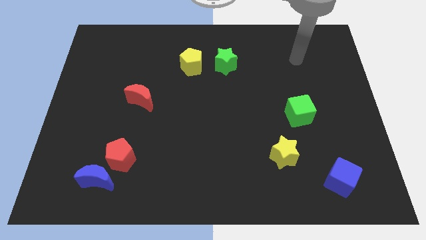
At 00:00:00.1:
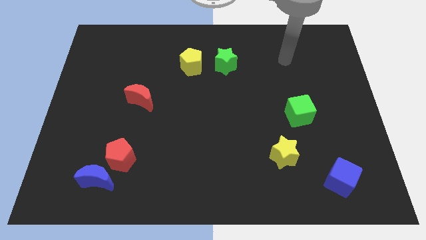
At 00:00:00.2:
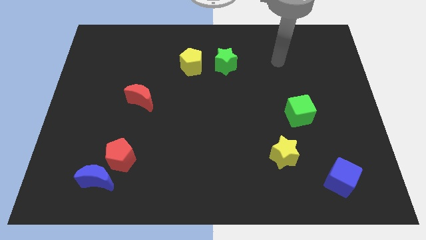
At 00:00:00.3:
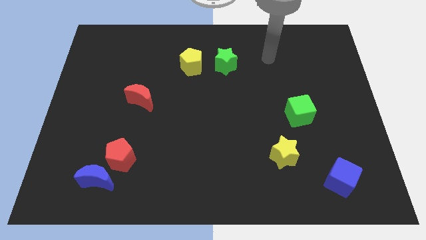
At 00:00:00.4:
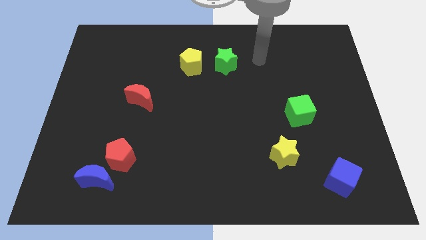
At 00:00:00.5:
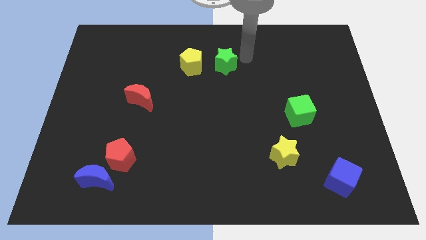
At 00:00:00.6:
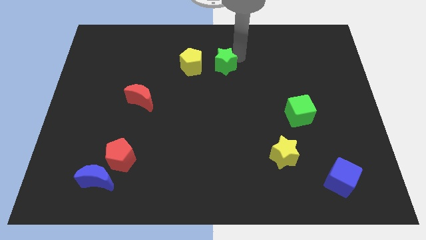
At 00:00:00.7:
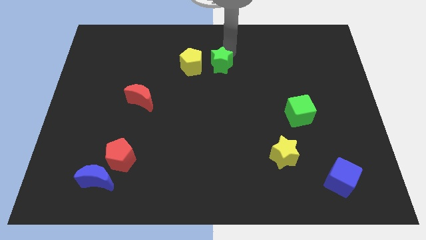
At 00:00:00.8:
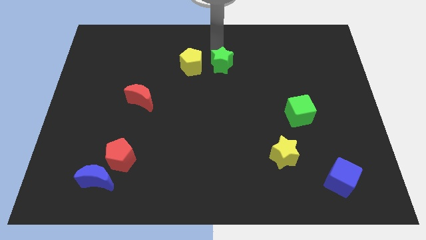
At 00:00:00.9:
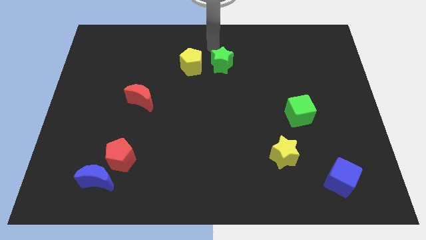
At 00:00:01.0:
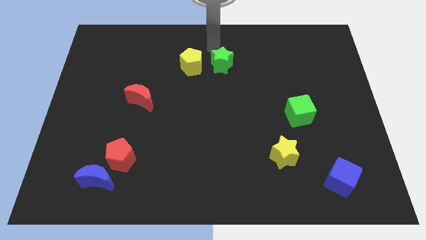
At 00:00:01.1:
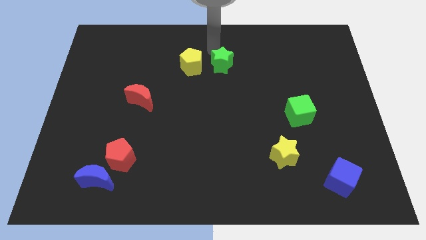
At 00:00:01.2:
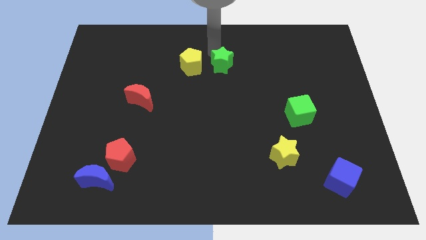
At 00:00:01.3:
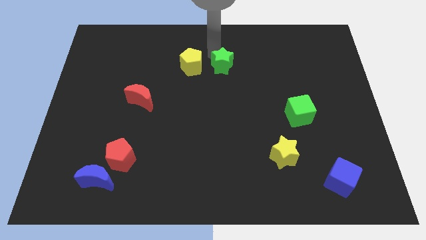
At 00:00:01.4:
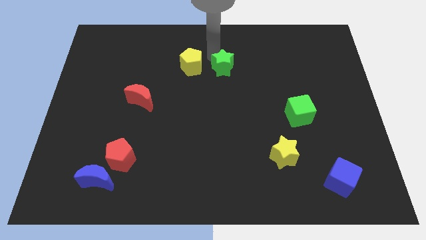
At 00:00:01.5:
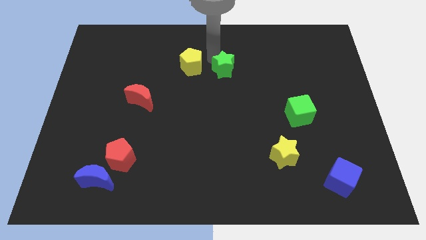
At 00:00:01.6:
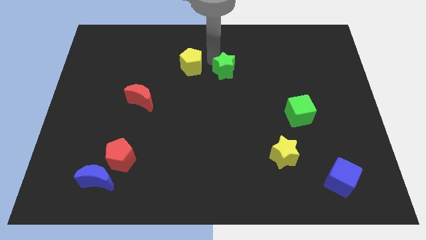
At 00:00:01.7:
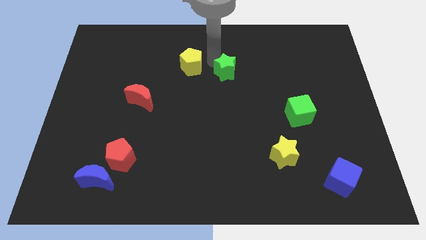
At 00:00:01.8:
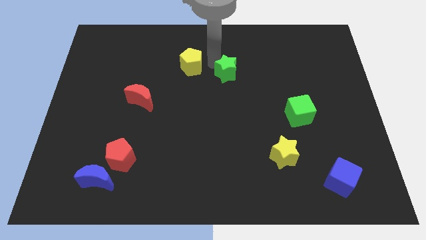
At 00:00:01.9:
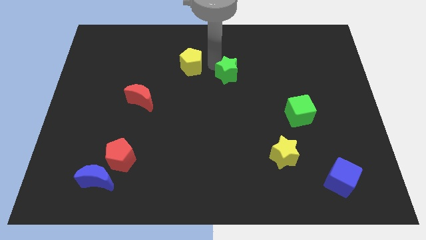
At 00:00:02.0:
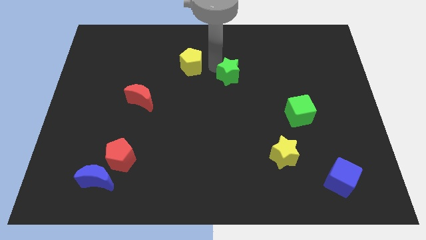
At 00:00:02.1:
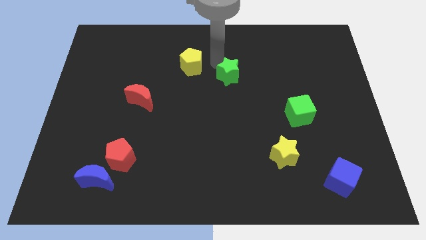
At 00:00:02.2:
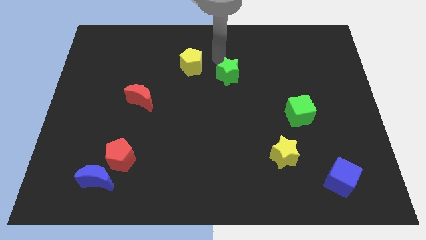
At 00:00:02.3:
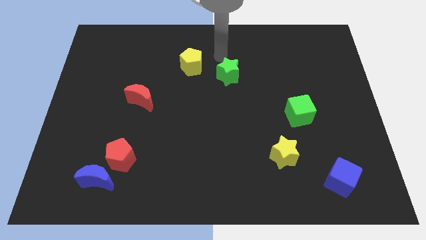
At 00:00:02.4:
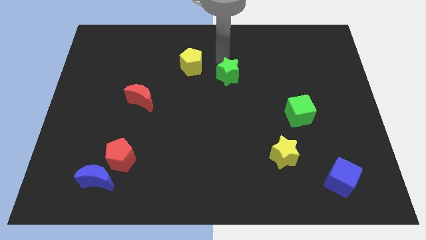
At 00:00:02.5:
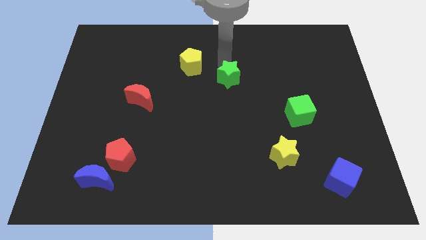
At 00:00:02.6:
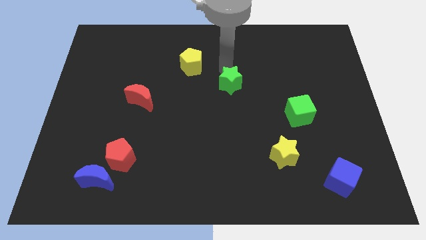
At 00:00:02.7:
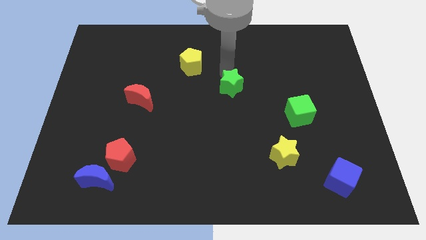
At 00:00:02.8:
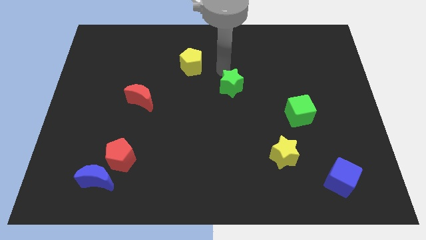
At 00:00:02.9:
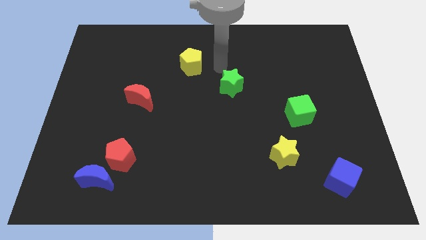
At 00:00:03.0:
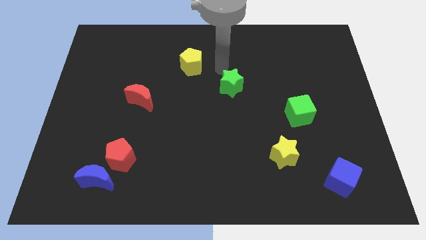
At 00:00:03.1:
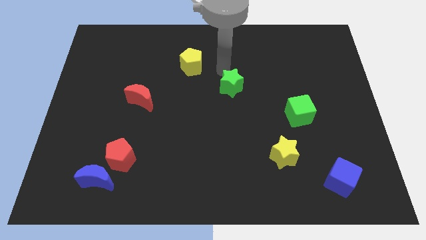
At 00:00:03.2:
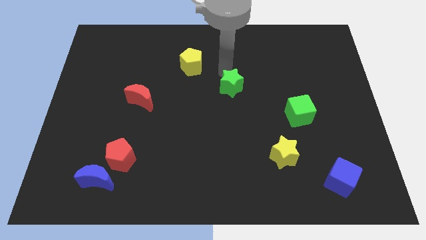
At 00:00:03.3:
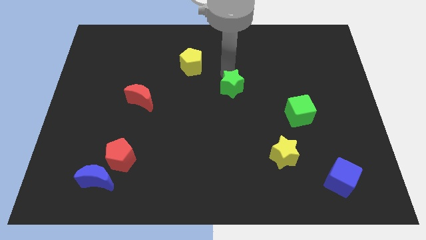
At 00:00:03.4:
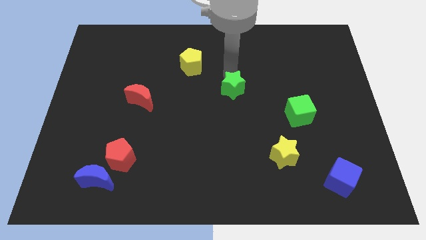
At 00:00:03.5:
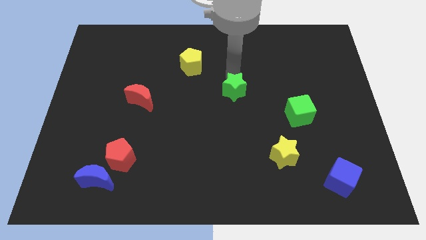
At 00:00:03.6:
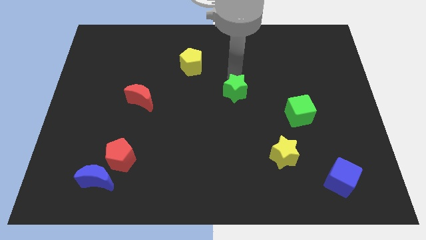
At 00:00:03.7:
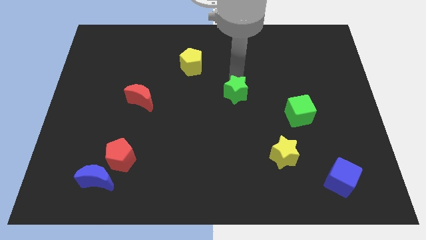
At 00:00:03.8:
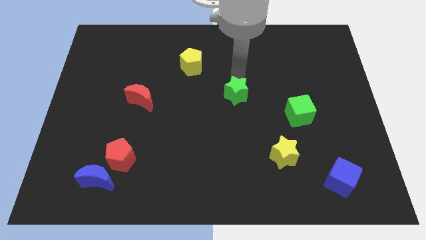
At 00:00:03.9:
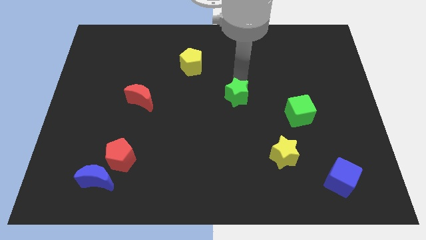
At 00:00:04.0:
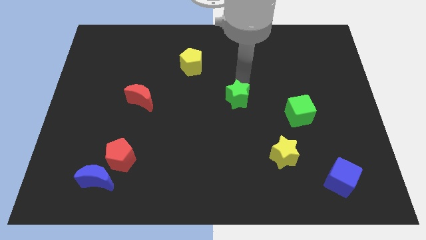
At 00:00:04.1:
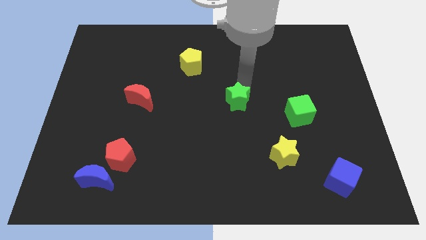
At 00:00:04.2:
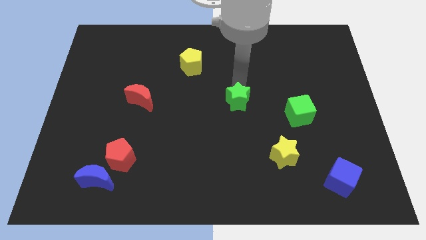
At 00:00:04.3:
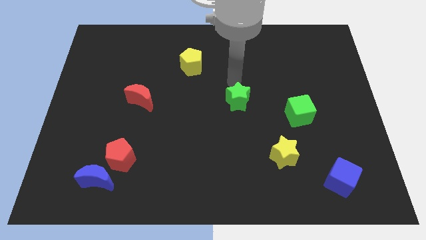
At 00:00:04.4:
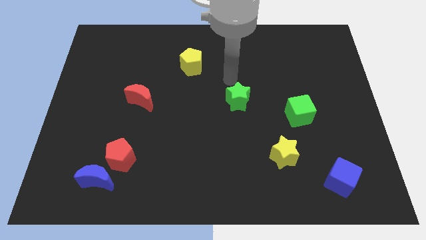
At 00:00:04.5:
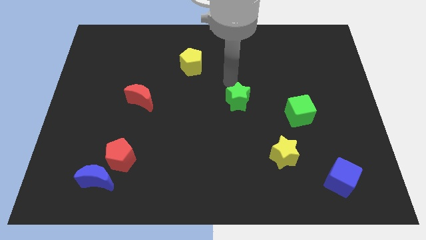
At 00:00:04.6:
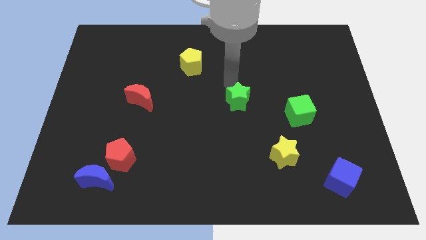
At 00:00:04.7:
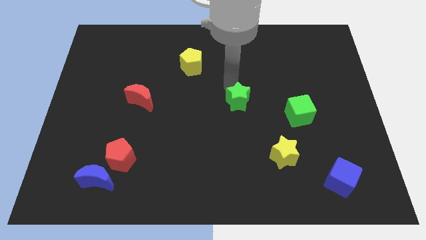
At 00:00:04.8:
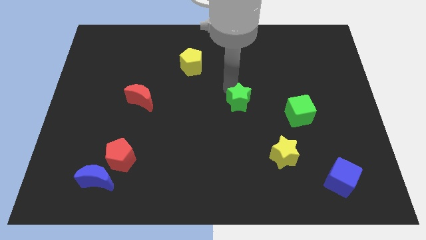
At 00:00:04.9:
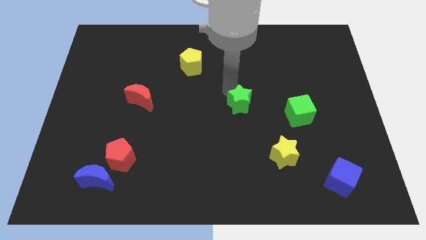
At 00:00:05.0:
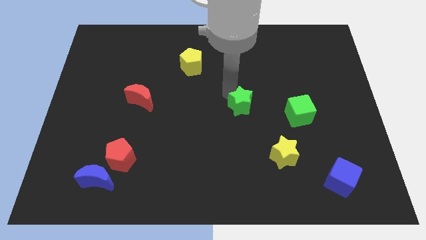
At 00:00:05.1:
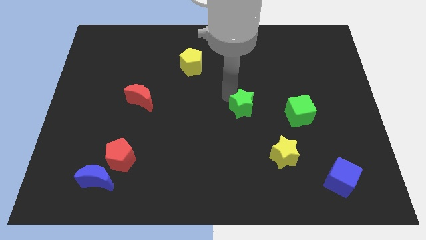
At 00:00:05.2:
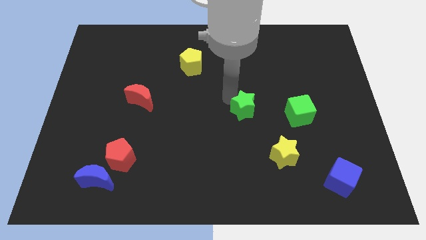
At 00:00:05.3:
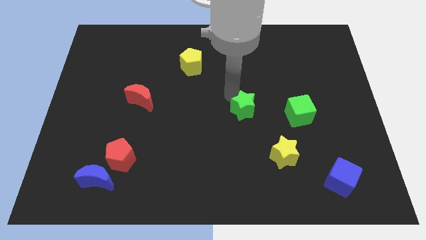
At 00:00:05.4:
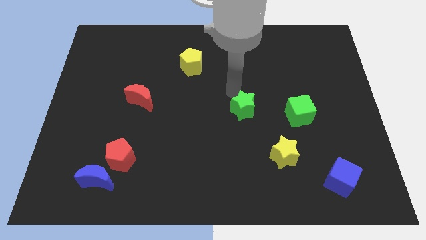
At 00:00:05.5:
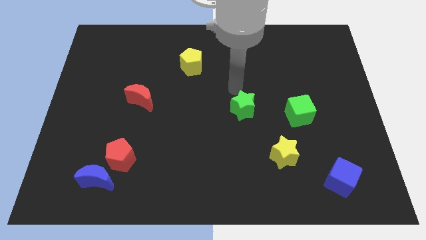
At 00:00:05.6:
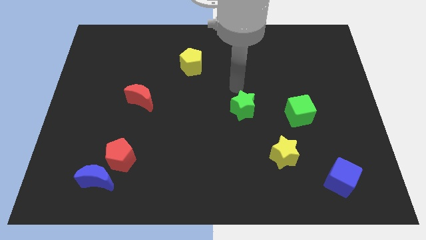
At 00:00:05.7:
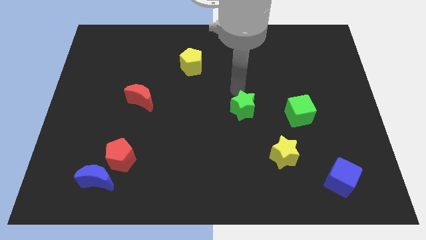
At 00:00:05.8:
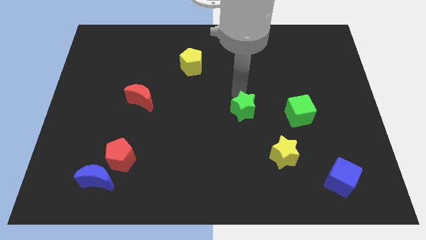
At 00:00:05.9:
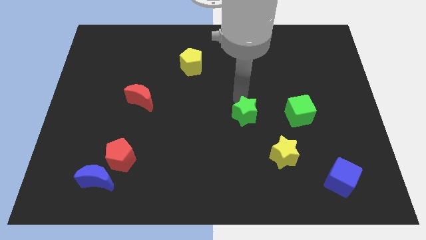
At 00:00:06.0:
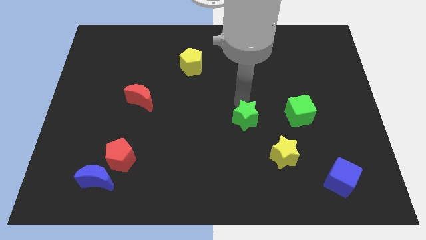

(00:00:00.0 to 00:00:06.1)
move the green star to the top left of the yellow star

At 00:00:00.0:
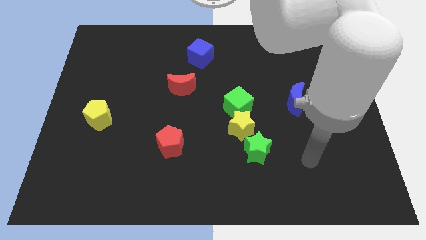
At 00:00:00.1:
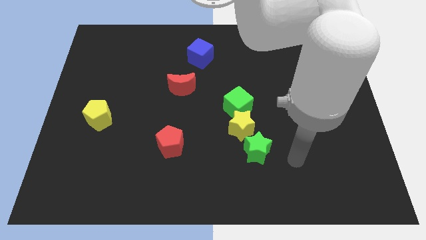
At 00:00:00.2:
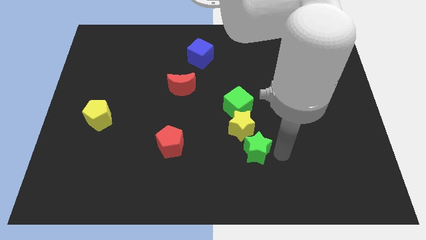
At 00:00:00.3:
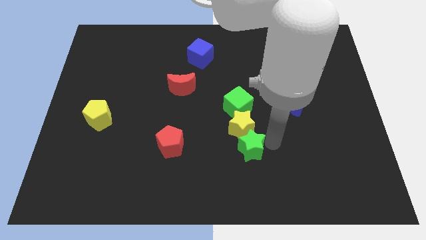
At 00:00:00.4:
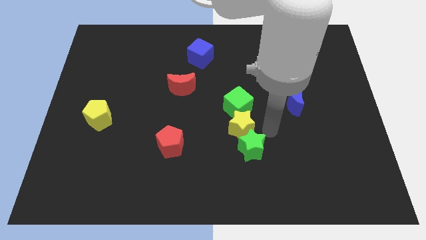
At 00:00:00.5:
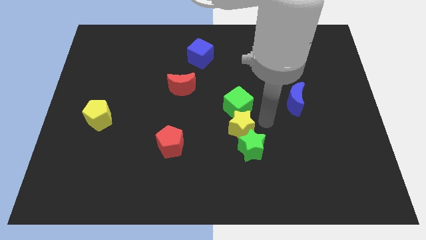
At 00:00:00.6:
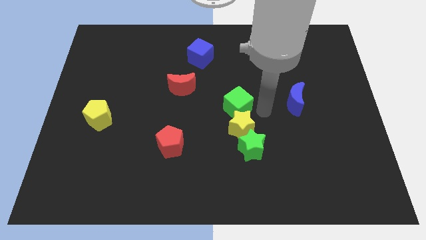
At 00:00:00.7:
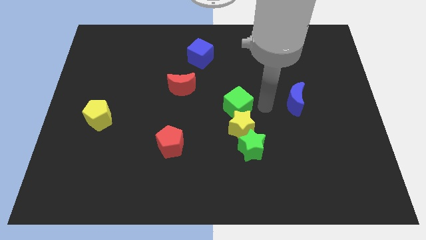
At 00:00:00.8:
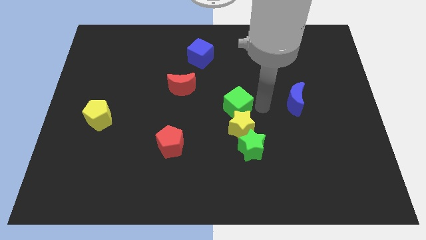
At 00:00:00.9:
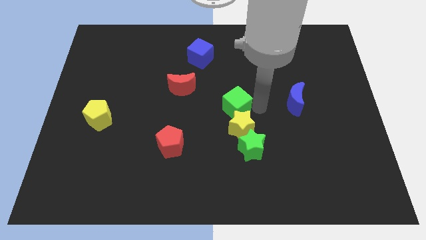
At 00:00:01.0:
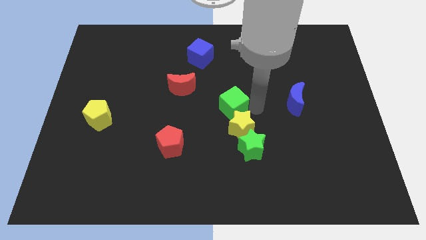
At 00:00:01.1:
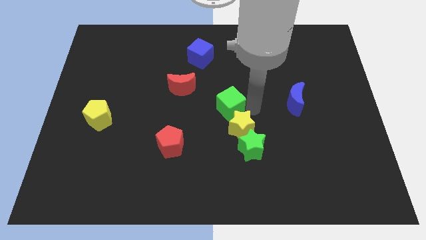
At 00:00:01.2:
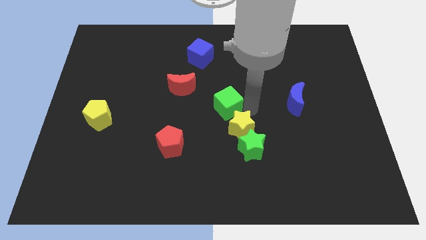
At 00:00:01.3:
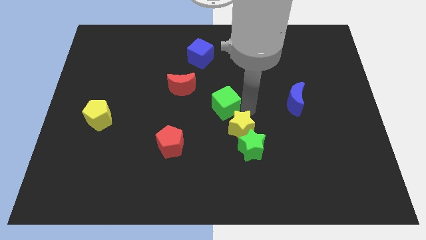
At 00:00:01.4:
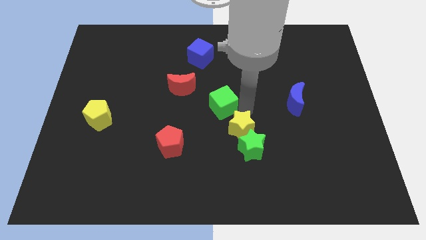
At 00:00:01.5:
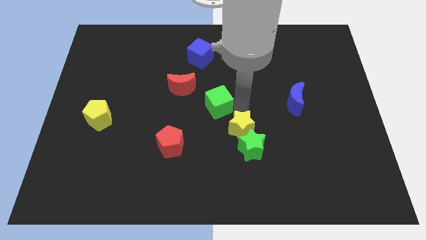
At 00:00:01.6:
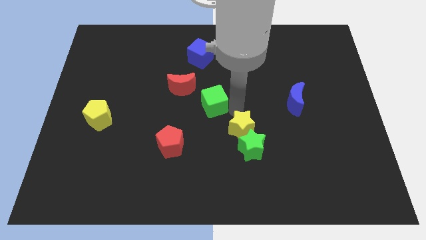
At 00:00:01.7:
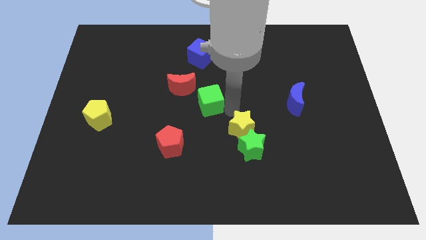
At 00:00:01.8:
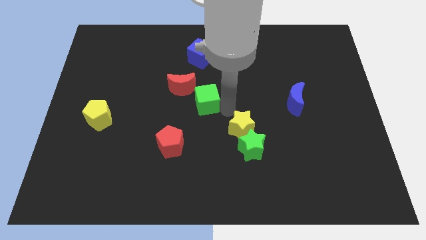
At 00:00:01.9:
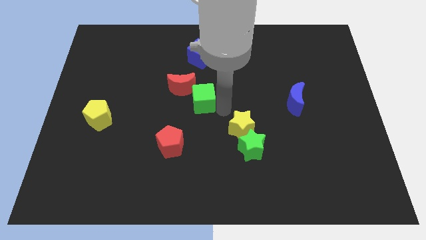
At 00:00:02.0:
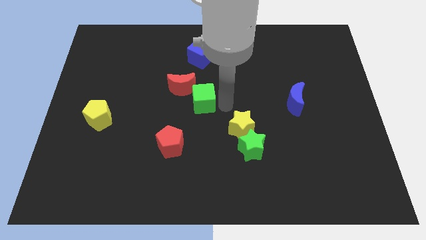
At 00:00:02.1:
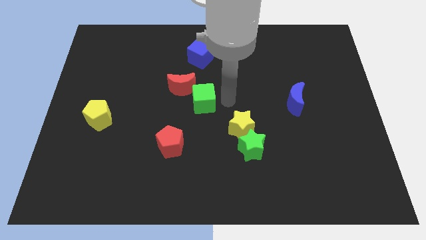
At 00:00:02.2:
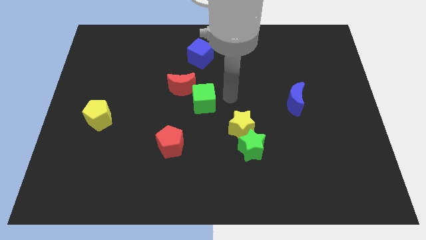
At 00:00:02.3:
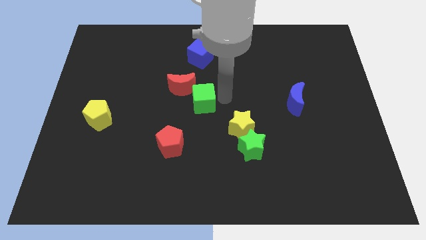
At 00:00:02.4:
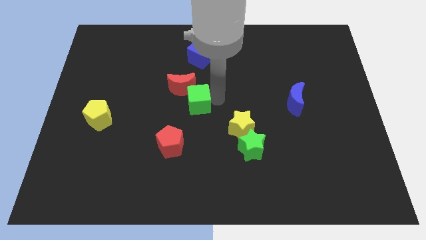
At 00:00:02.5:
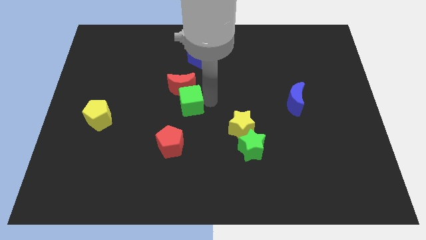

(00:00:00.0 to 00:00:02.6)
put the green cube above the red pentagon
